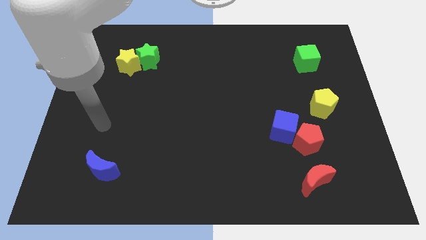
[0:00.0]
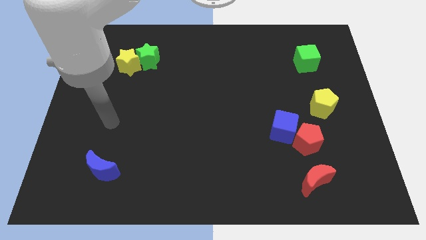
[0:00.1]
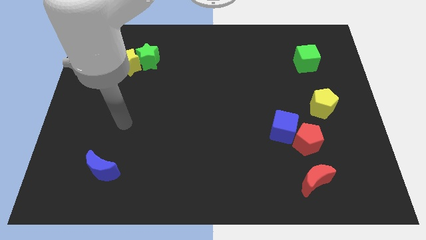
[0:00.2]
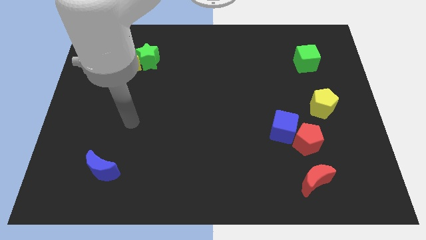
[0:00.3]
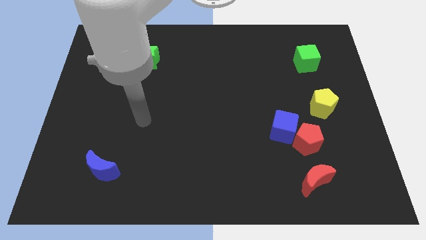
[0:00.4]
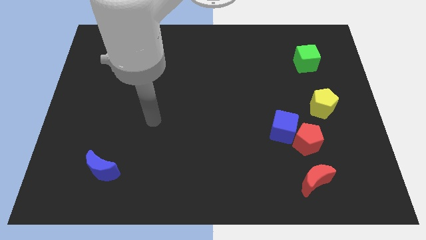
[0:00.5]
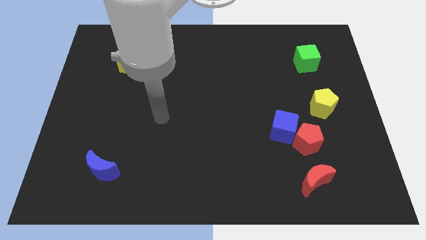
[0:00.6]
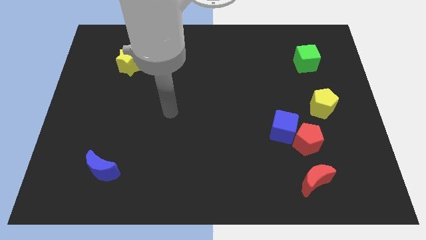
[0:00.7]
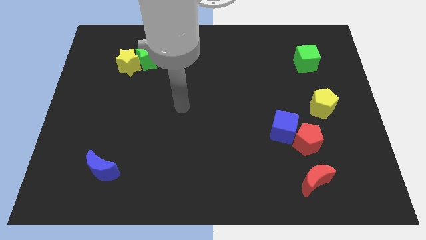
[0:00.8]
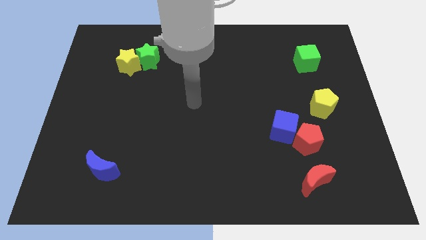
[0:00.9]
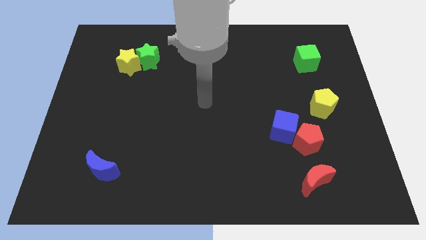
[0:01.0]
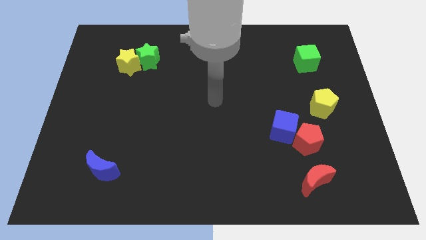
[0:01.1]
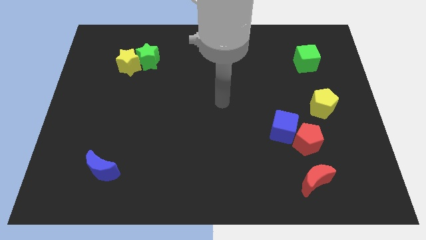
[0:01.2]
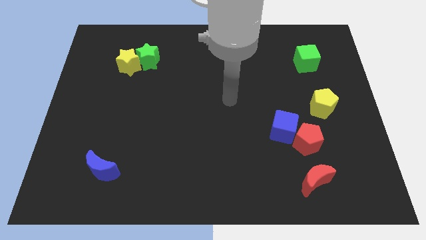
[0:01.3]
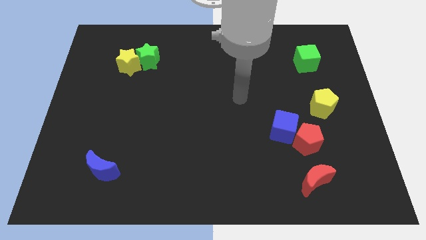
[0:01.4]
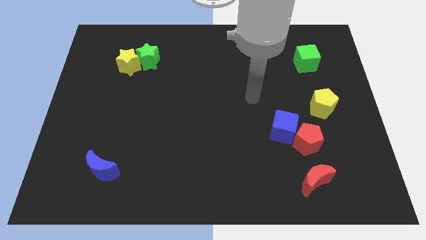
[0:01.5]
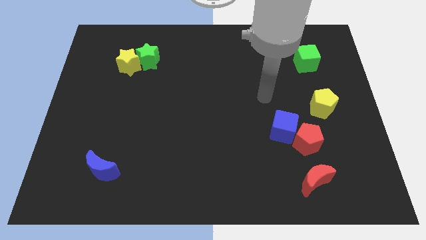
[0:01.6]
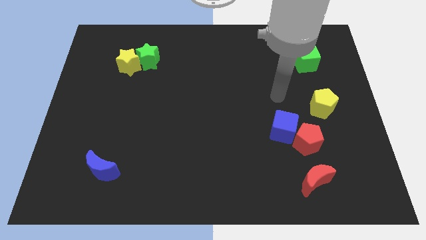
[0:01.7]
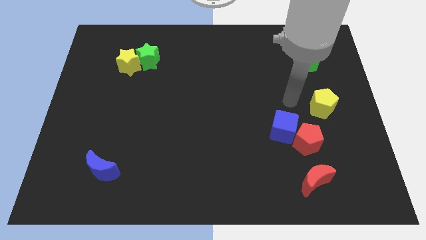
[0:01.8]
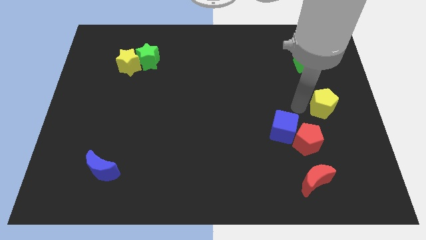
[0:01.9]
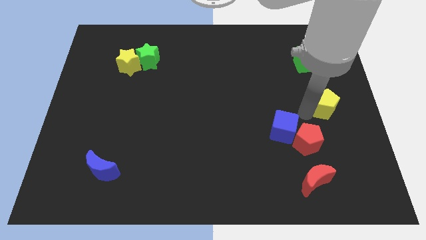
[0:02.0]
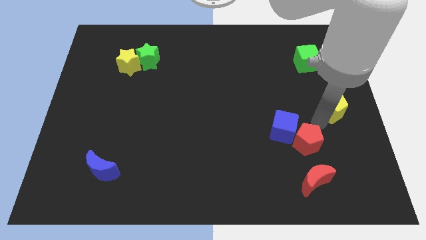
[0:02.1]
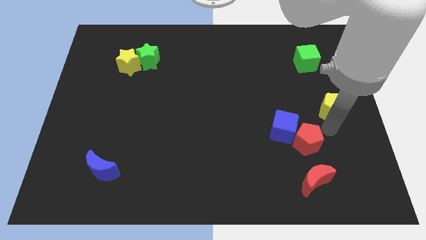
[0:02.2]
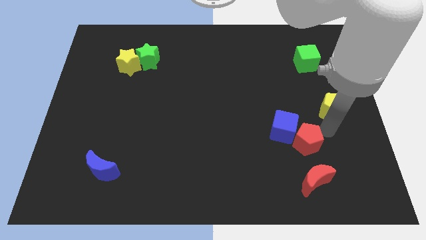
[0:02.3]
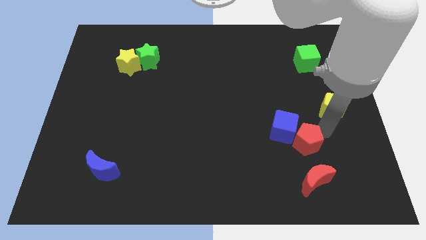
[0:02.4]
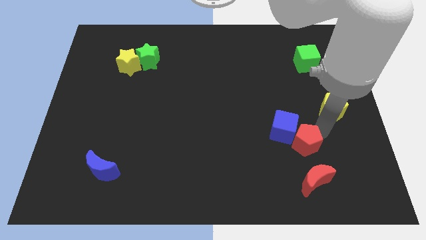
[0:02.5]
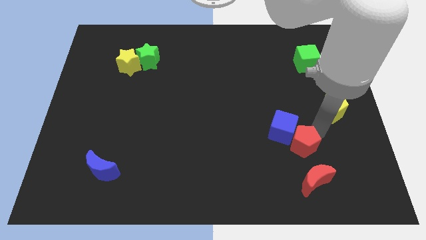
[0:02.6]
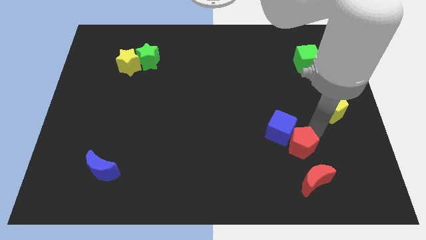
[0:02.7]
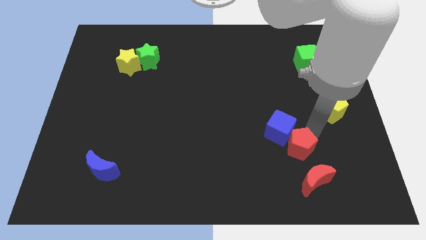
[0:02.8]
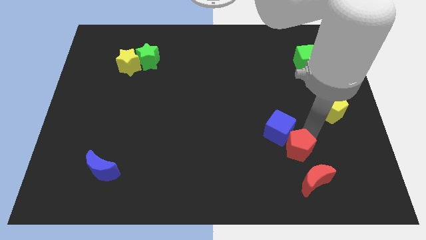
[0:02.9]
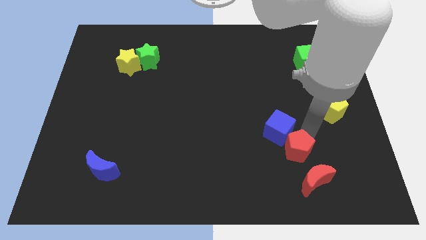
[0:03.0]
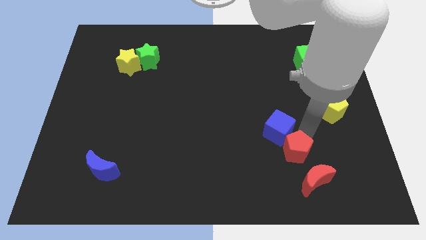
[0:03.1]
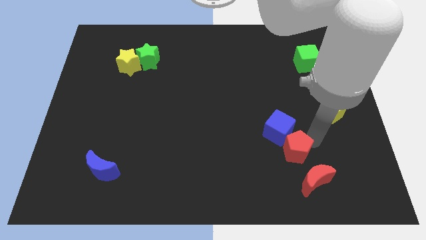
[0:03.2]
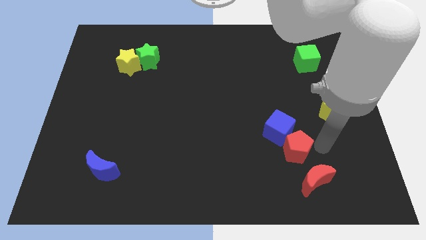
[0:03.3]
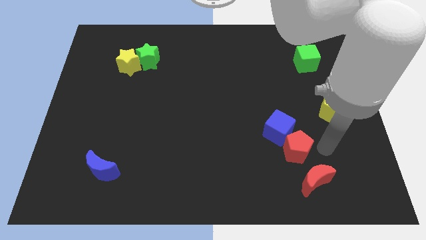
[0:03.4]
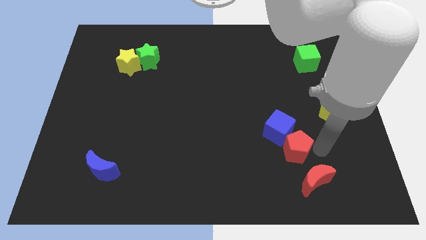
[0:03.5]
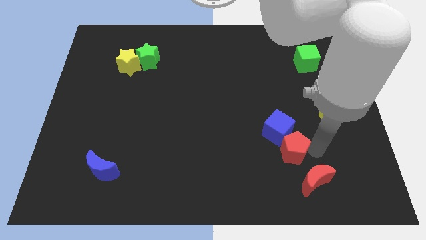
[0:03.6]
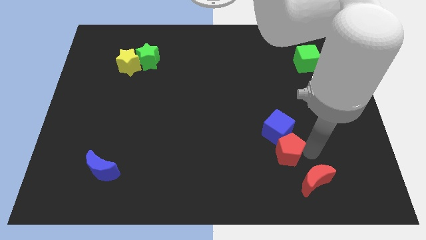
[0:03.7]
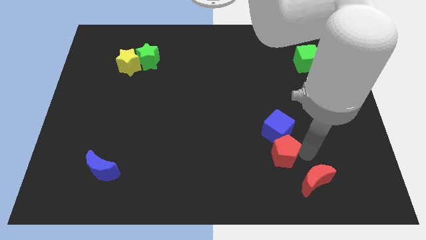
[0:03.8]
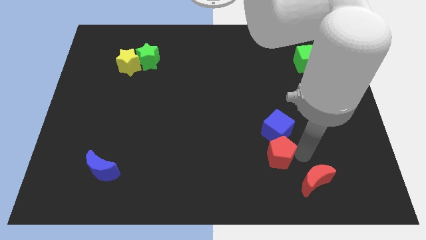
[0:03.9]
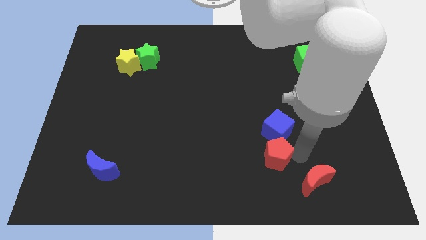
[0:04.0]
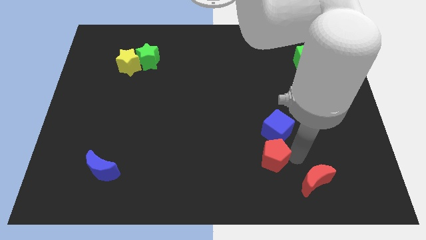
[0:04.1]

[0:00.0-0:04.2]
push the red pentagon a little to the left

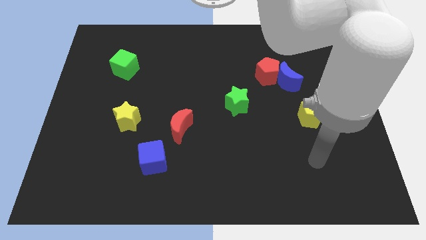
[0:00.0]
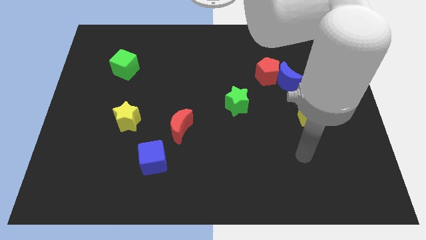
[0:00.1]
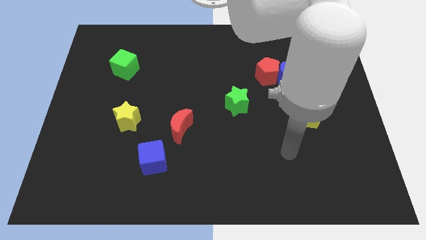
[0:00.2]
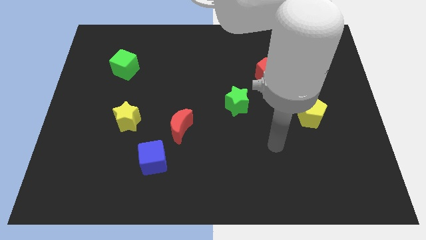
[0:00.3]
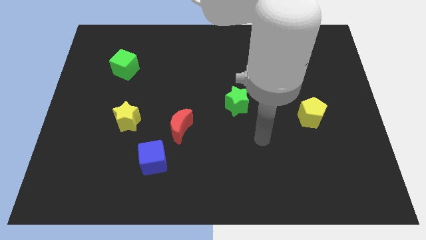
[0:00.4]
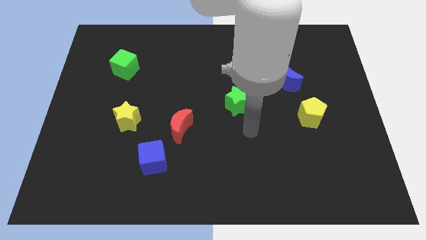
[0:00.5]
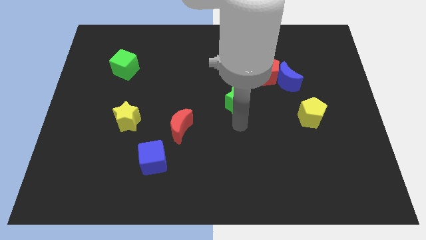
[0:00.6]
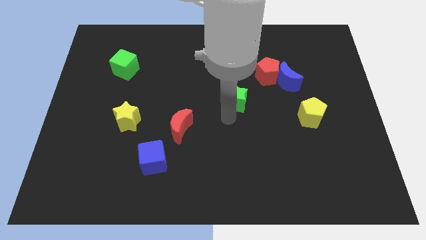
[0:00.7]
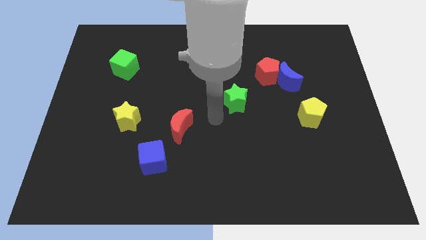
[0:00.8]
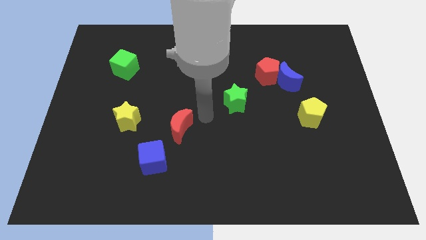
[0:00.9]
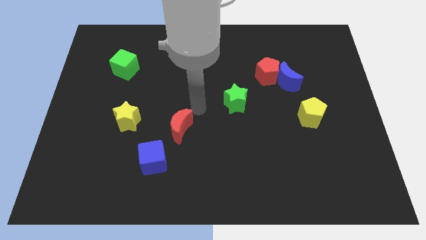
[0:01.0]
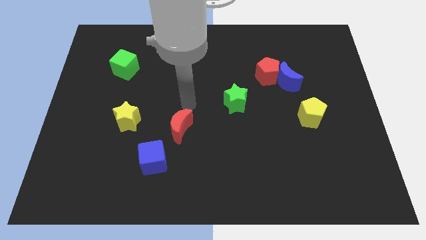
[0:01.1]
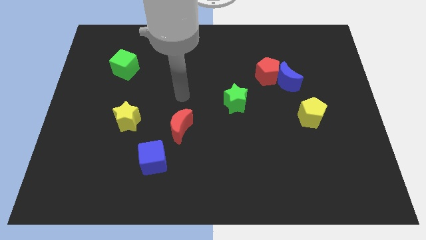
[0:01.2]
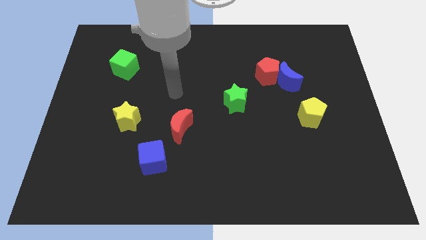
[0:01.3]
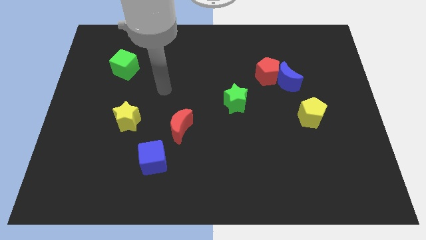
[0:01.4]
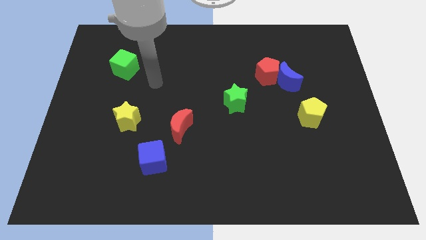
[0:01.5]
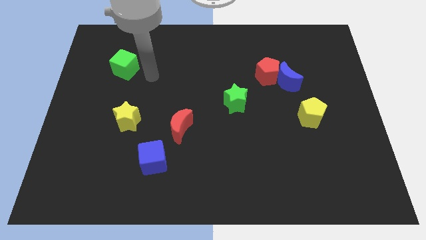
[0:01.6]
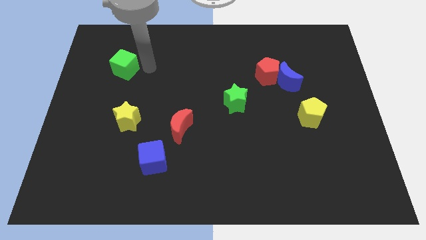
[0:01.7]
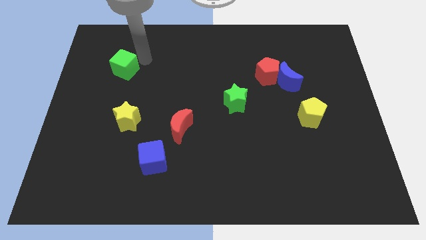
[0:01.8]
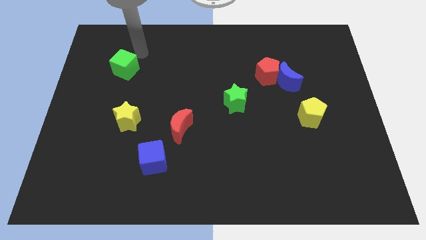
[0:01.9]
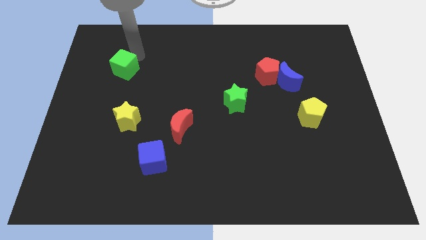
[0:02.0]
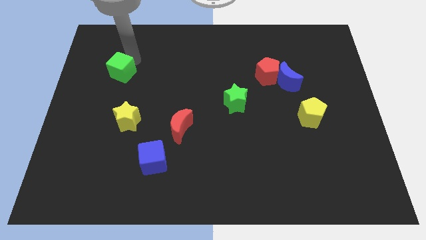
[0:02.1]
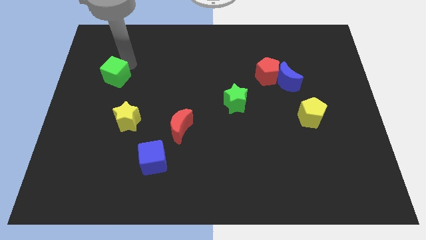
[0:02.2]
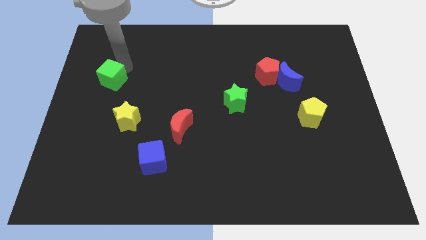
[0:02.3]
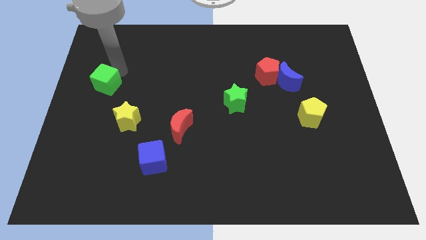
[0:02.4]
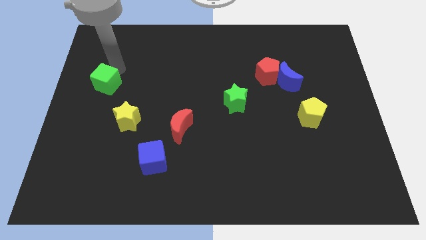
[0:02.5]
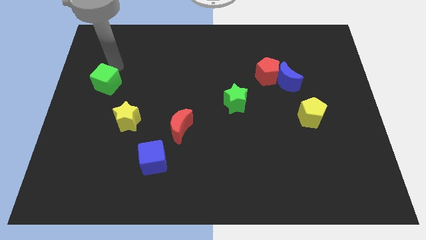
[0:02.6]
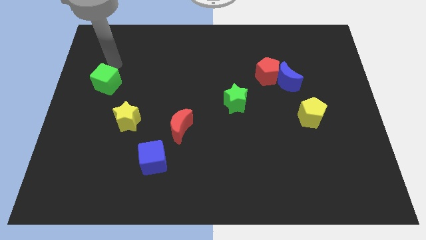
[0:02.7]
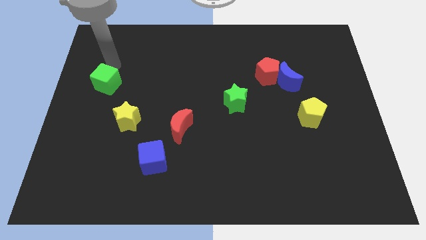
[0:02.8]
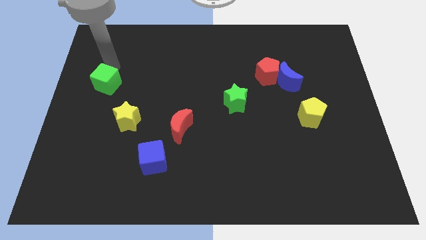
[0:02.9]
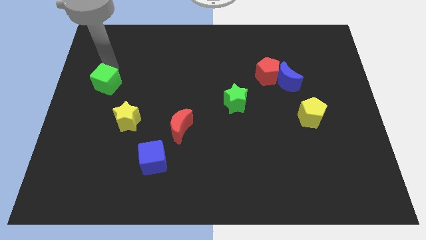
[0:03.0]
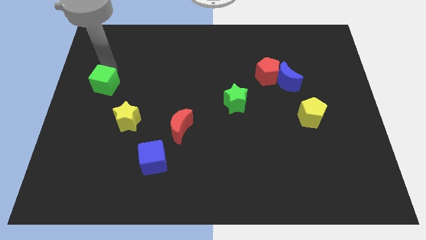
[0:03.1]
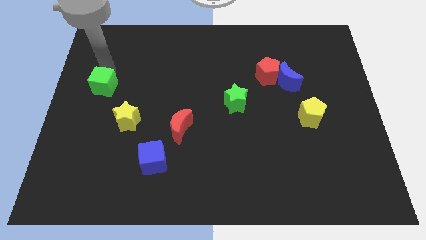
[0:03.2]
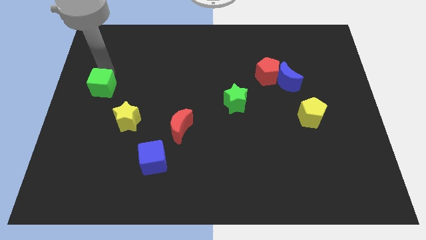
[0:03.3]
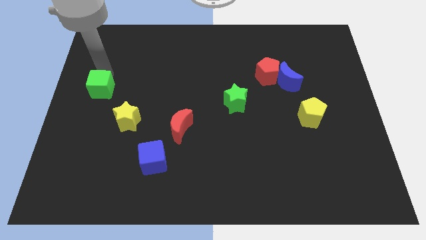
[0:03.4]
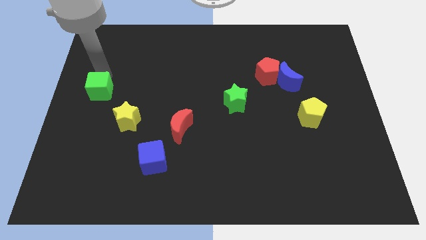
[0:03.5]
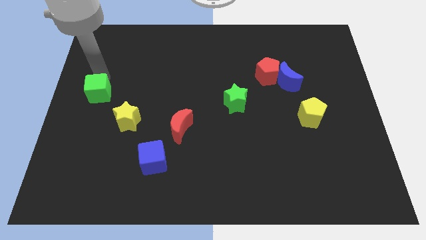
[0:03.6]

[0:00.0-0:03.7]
move the green cube downwards a bit

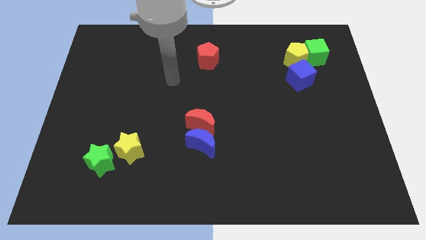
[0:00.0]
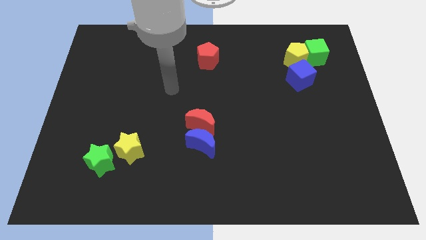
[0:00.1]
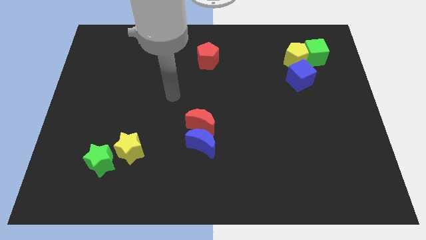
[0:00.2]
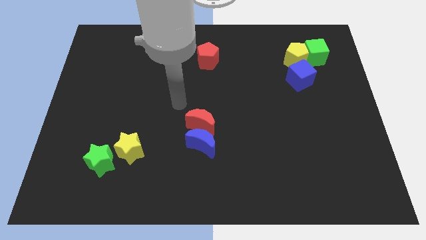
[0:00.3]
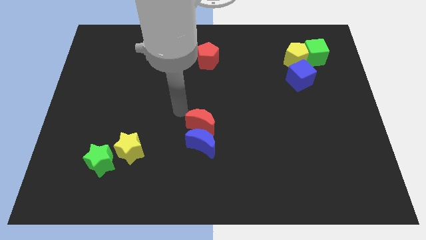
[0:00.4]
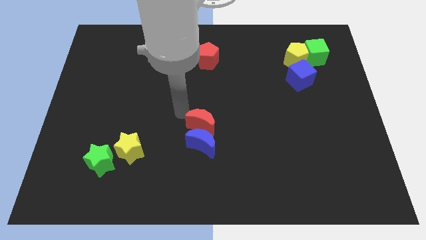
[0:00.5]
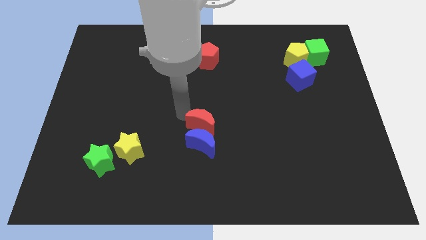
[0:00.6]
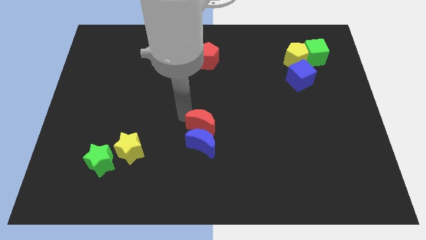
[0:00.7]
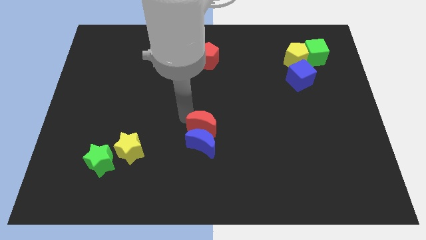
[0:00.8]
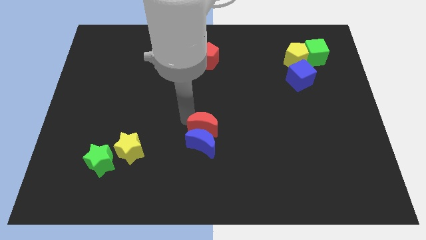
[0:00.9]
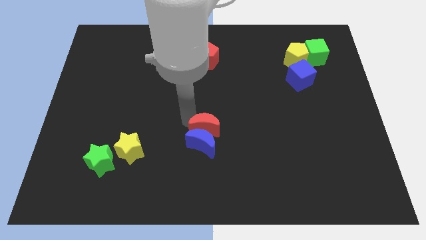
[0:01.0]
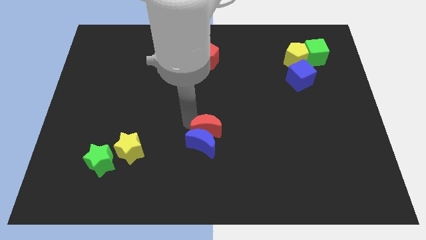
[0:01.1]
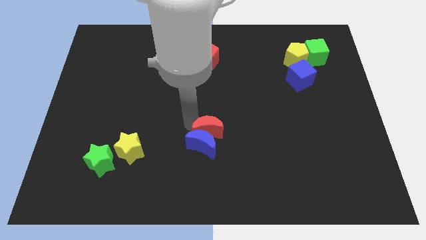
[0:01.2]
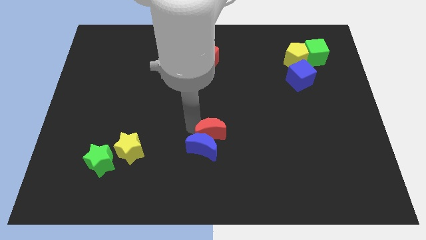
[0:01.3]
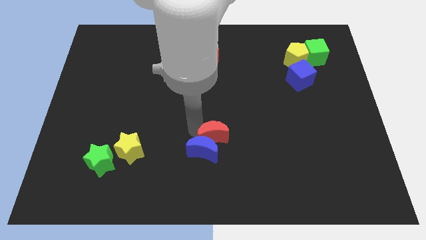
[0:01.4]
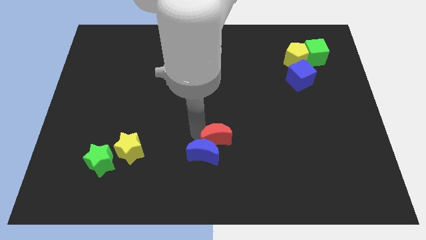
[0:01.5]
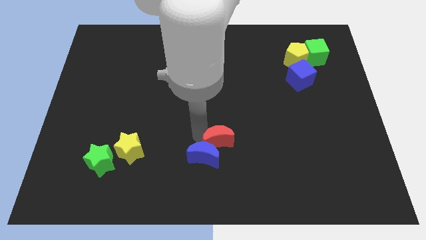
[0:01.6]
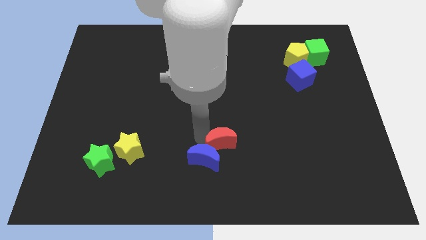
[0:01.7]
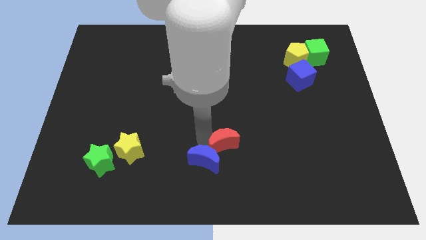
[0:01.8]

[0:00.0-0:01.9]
slightly move the red moon downwards and then to the right
